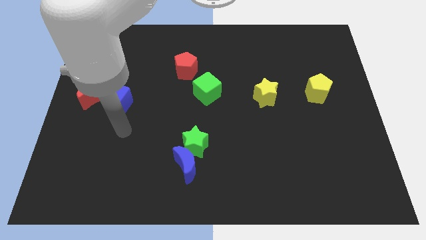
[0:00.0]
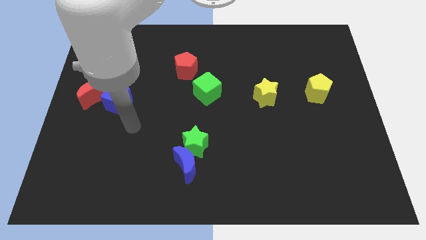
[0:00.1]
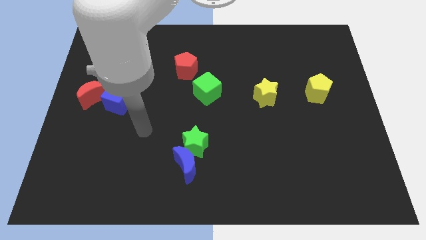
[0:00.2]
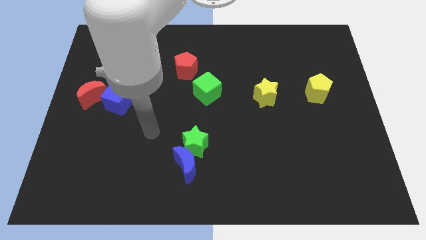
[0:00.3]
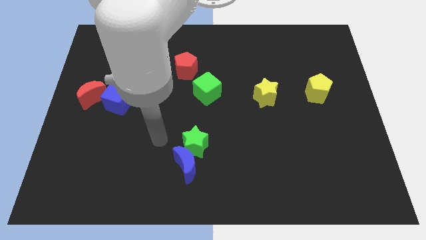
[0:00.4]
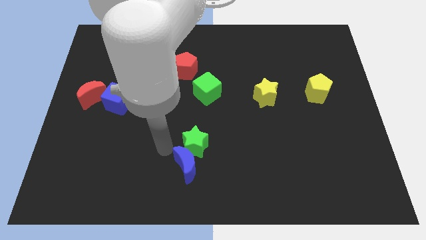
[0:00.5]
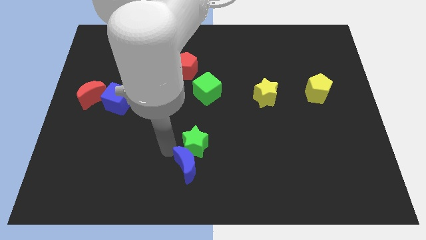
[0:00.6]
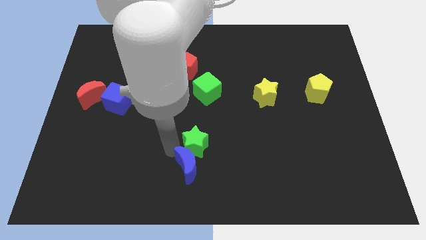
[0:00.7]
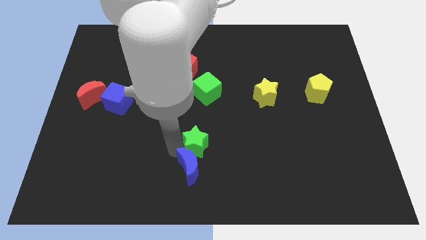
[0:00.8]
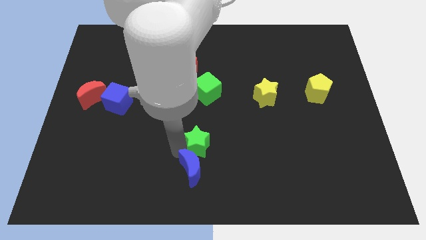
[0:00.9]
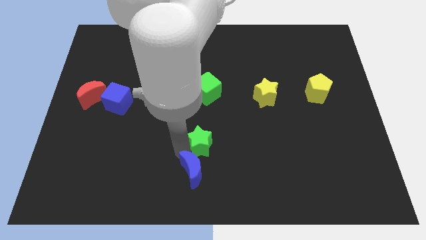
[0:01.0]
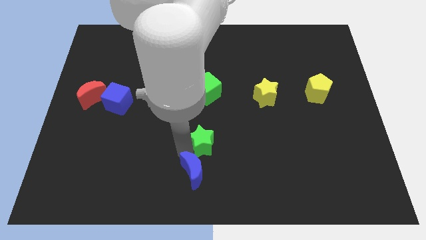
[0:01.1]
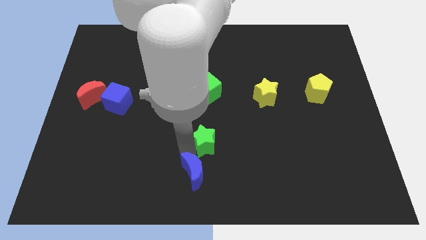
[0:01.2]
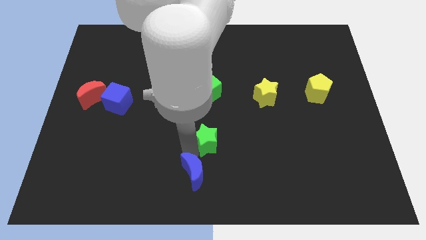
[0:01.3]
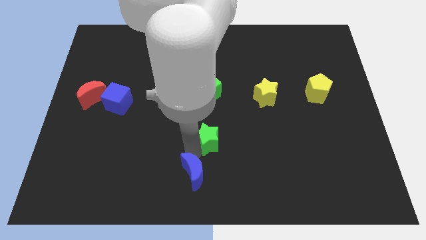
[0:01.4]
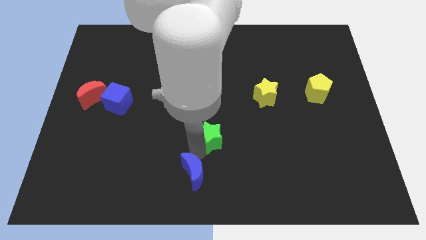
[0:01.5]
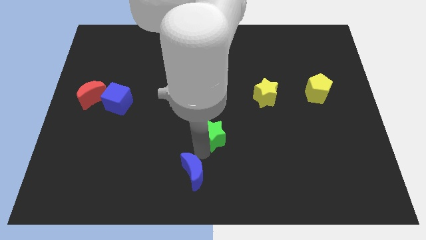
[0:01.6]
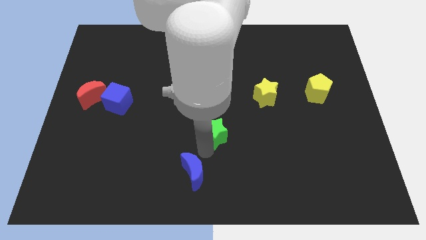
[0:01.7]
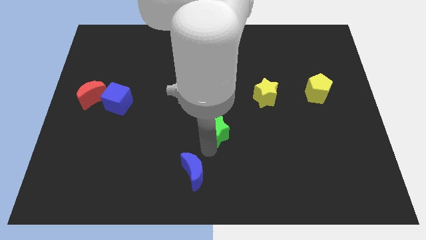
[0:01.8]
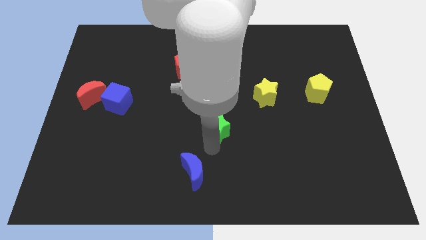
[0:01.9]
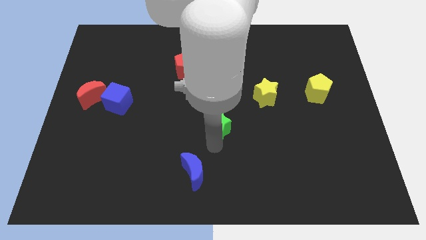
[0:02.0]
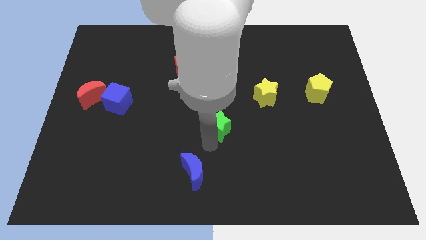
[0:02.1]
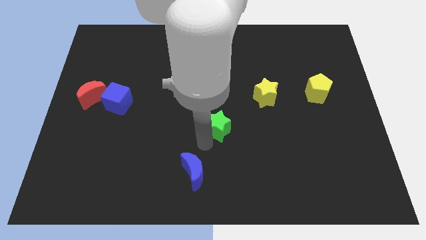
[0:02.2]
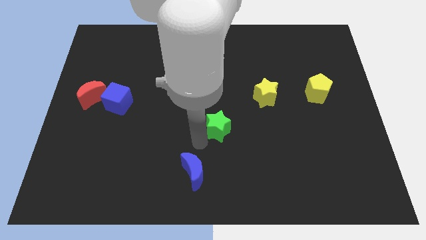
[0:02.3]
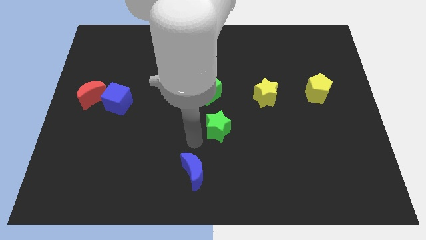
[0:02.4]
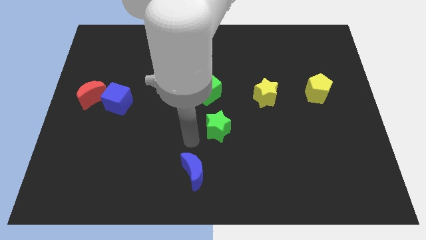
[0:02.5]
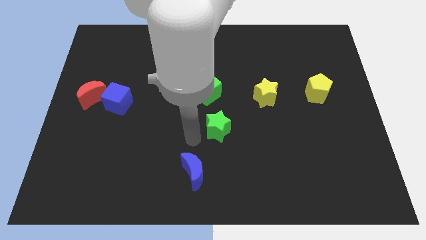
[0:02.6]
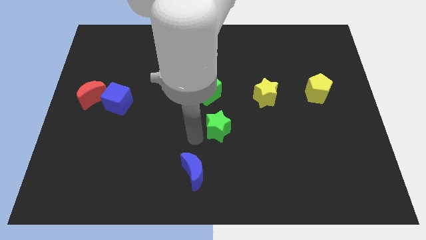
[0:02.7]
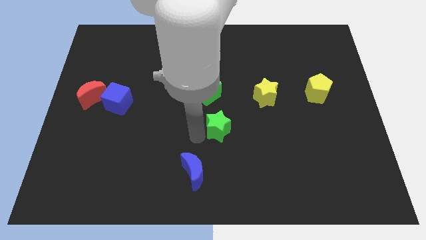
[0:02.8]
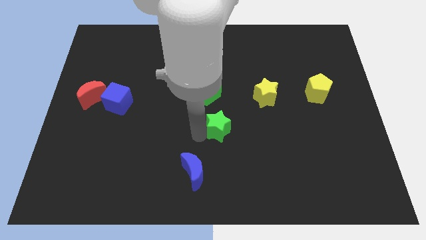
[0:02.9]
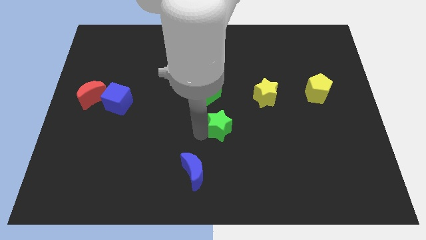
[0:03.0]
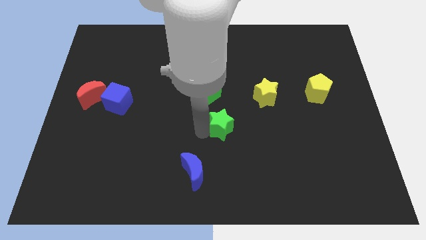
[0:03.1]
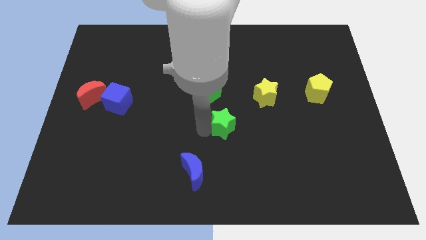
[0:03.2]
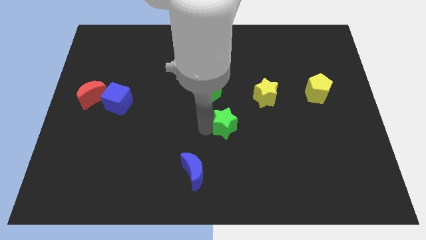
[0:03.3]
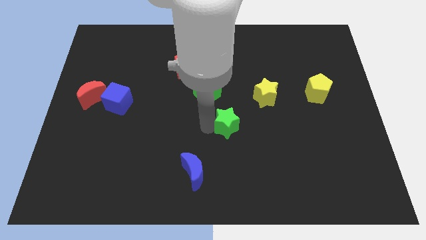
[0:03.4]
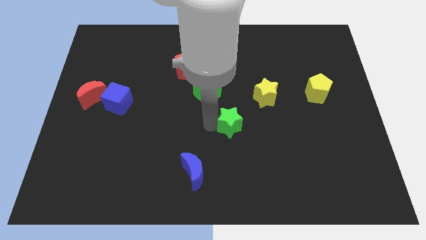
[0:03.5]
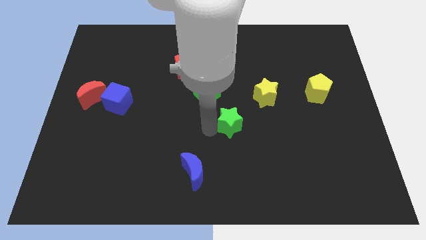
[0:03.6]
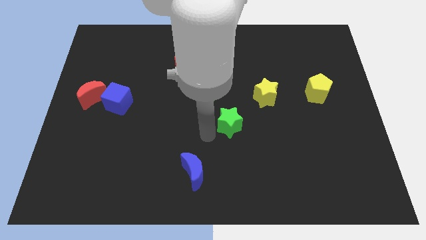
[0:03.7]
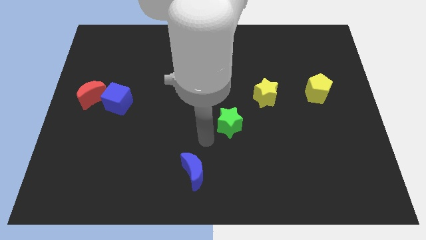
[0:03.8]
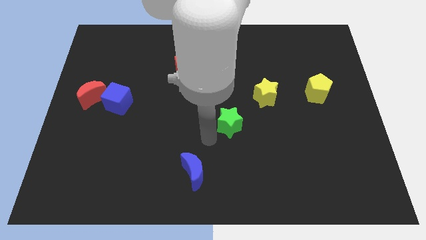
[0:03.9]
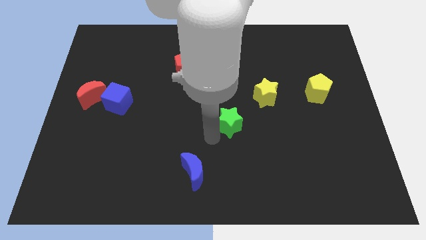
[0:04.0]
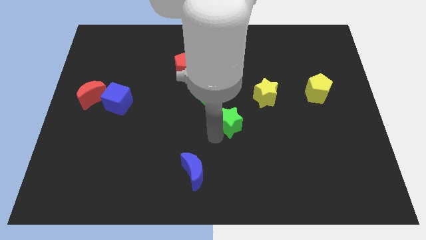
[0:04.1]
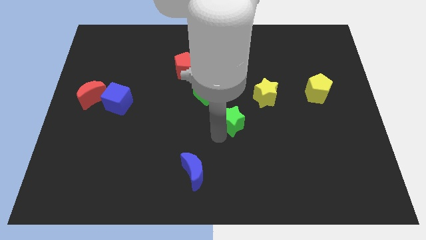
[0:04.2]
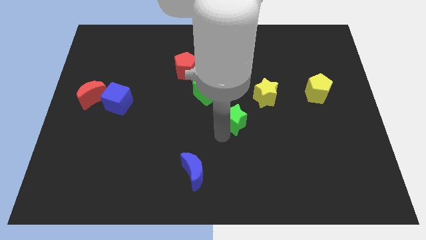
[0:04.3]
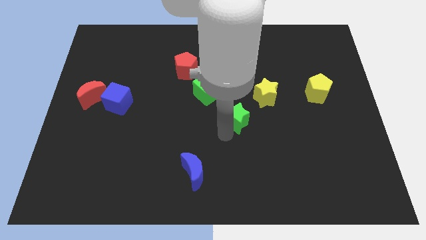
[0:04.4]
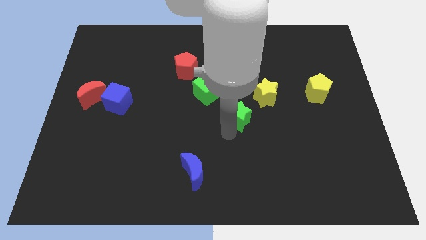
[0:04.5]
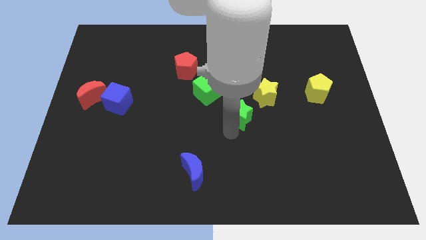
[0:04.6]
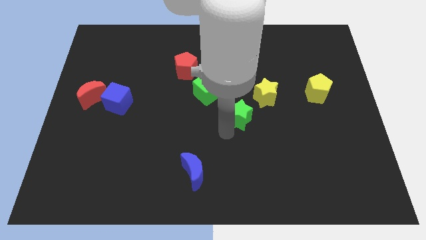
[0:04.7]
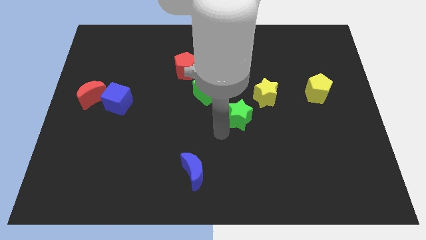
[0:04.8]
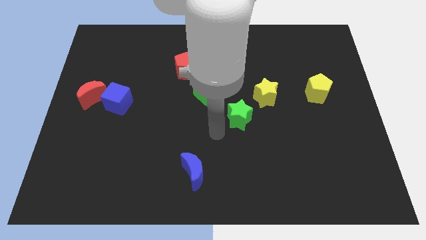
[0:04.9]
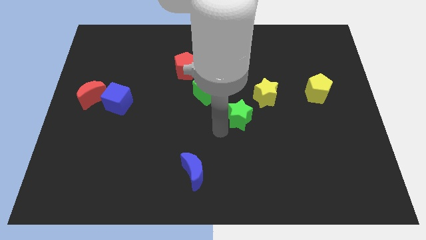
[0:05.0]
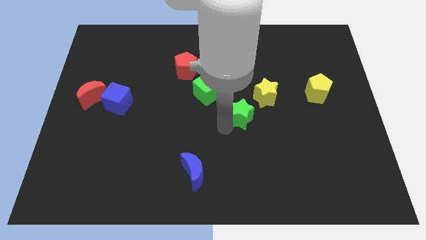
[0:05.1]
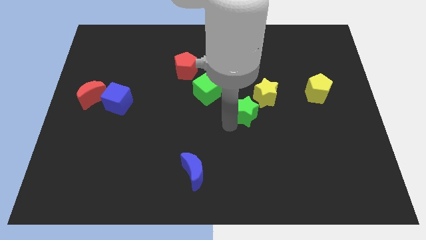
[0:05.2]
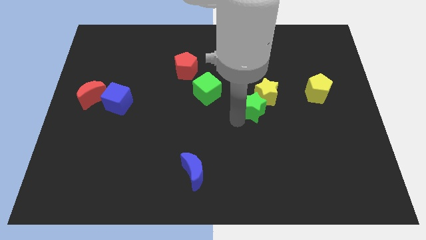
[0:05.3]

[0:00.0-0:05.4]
move the green star close to the yellow star

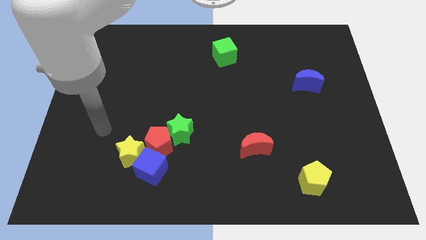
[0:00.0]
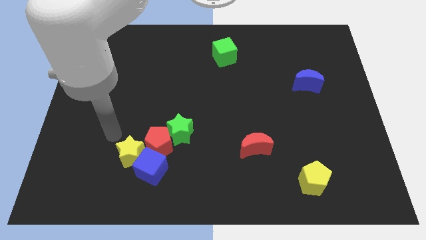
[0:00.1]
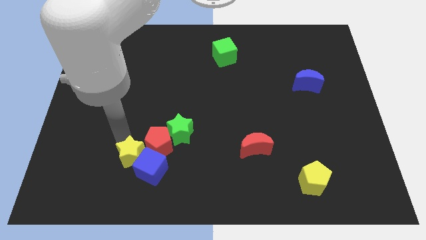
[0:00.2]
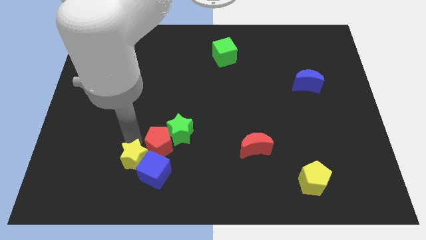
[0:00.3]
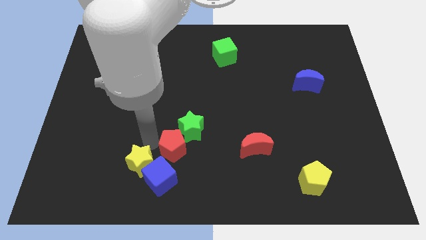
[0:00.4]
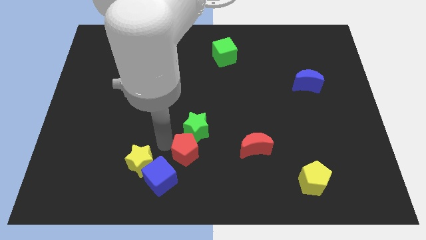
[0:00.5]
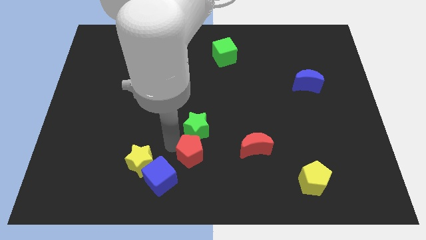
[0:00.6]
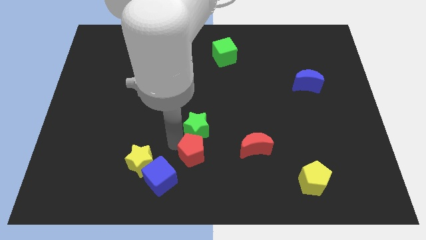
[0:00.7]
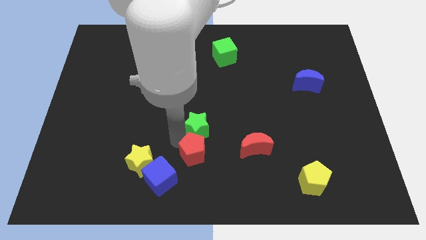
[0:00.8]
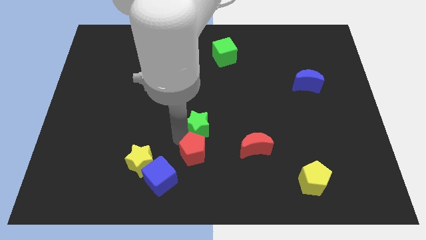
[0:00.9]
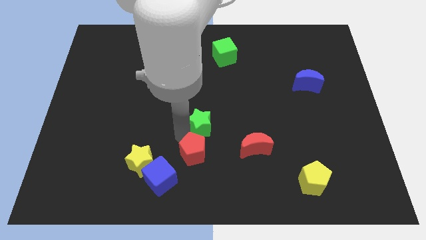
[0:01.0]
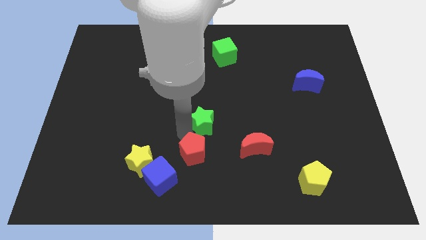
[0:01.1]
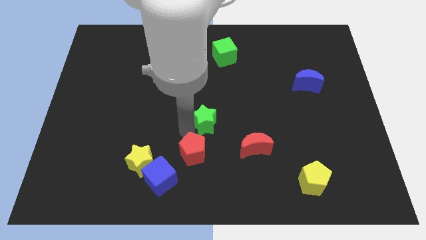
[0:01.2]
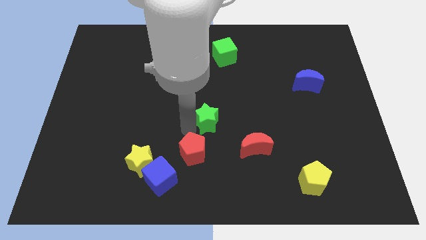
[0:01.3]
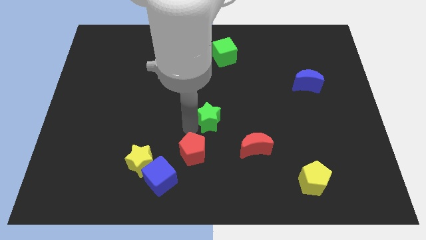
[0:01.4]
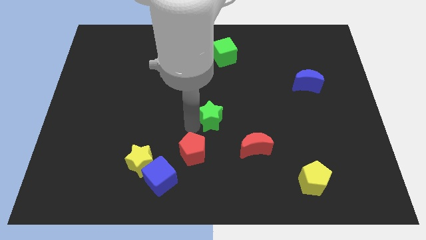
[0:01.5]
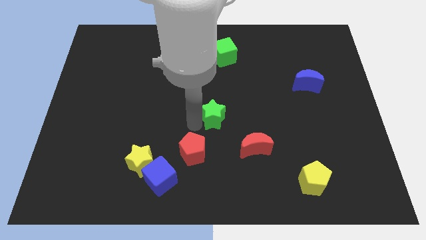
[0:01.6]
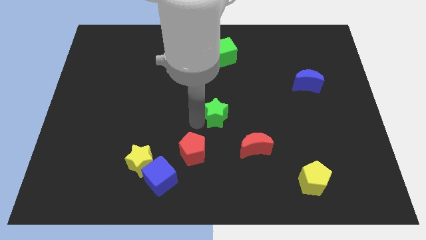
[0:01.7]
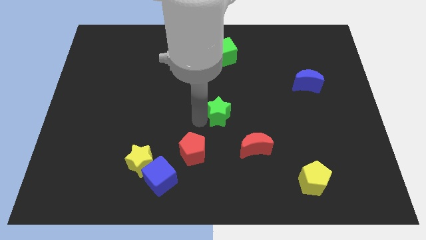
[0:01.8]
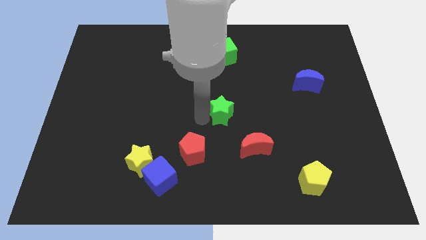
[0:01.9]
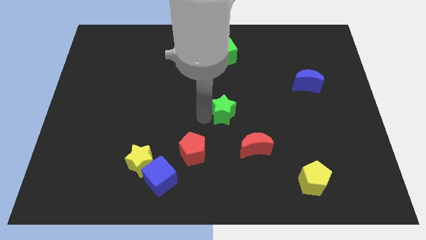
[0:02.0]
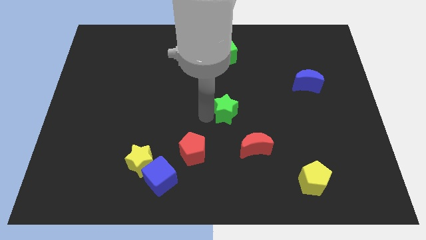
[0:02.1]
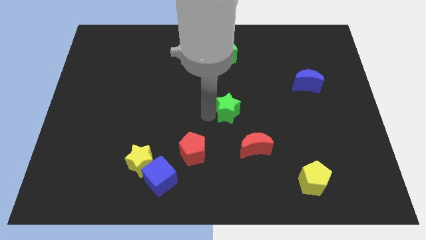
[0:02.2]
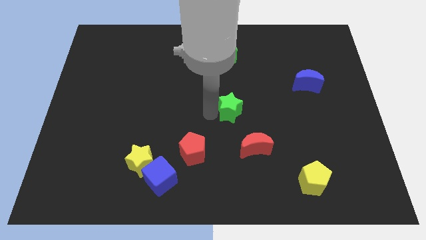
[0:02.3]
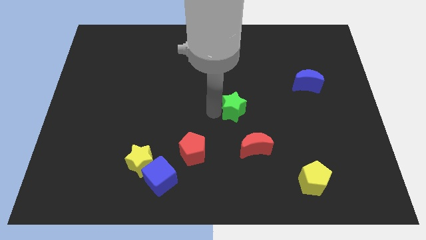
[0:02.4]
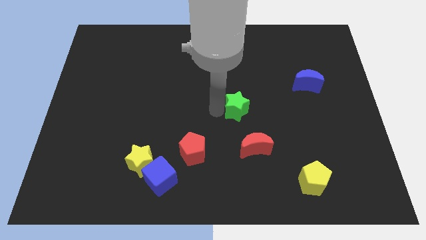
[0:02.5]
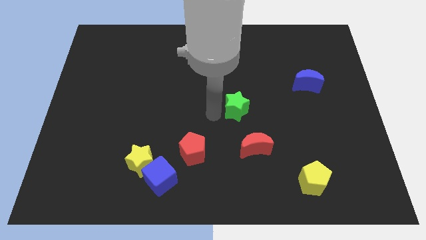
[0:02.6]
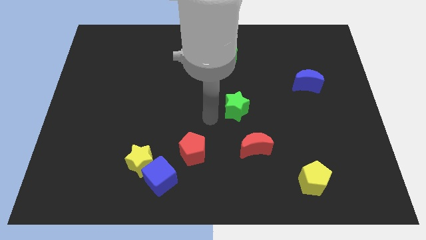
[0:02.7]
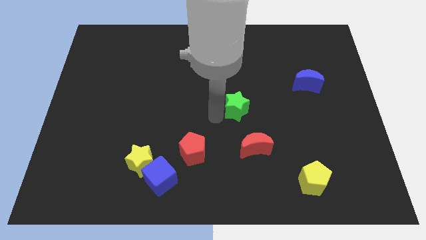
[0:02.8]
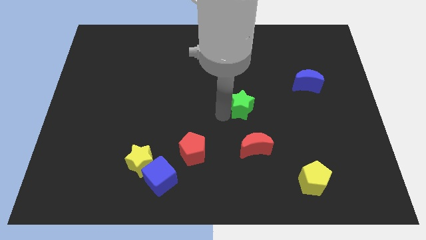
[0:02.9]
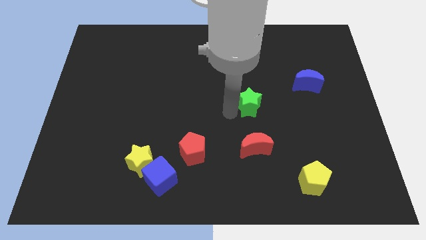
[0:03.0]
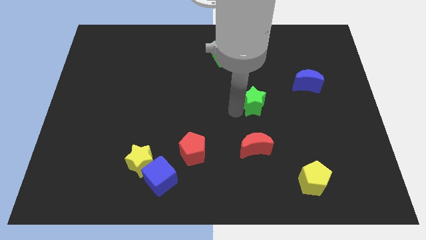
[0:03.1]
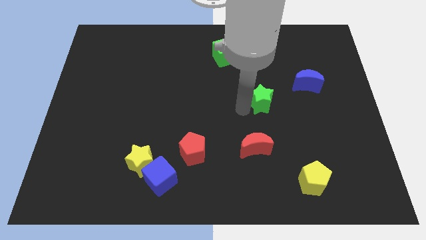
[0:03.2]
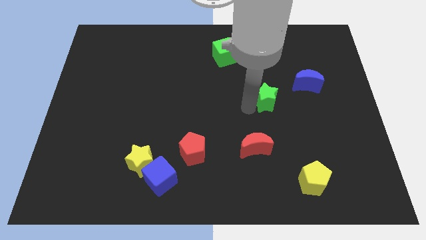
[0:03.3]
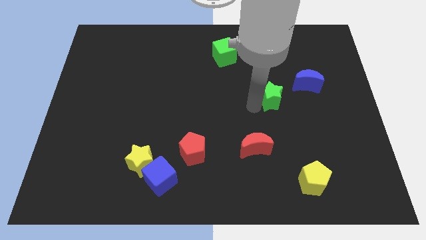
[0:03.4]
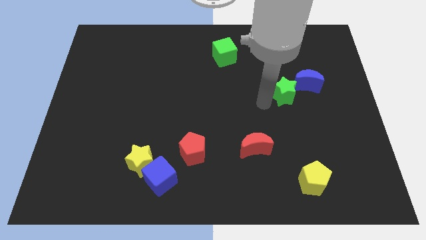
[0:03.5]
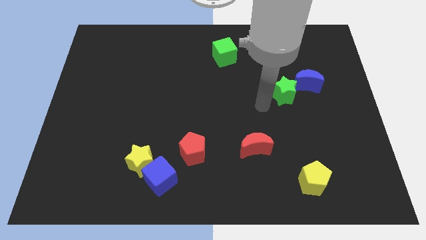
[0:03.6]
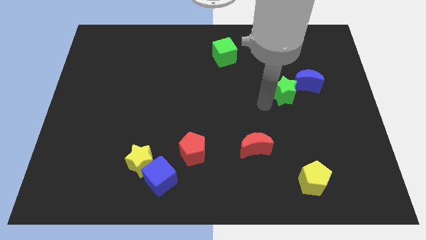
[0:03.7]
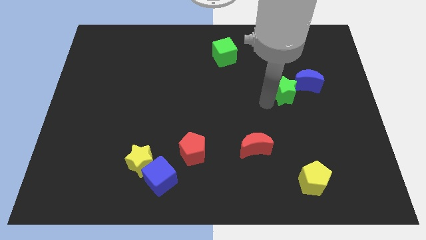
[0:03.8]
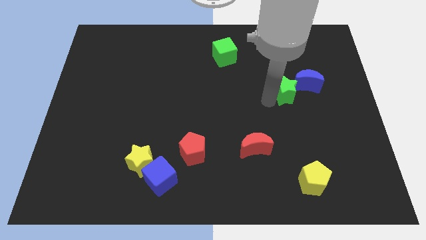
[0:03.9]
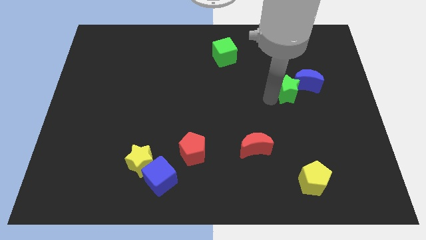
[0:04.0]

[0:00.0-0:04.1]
push the green star close to the blue moon
